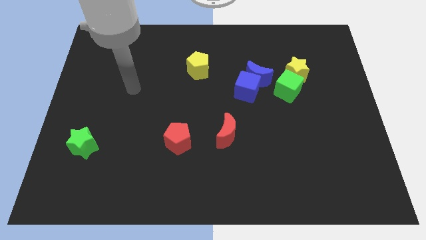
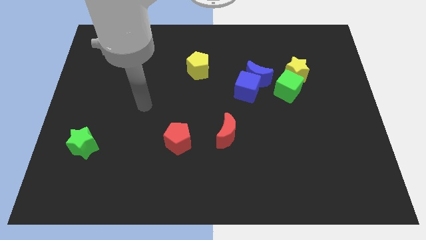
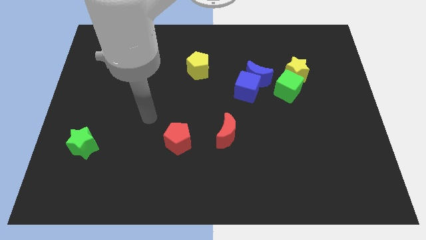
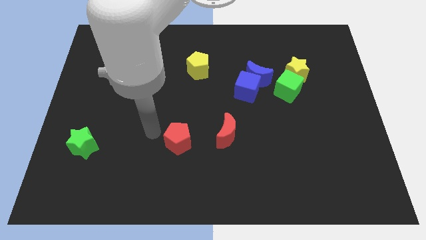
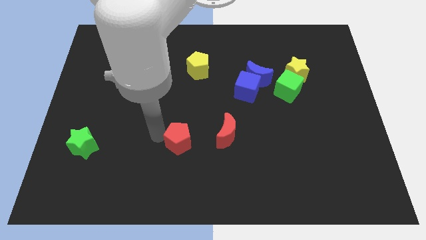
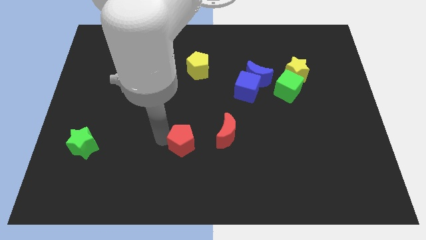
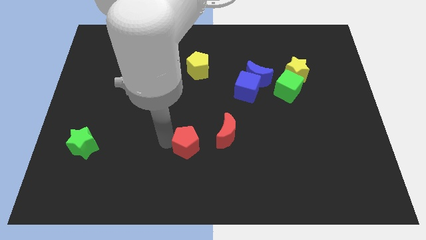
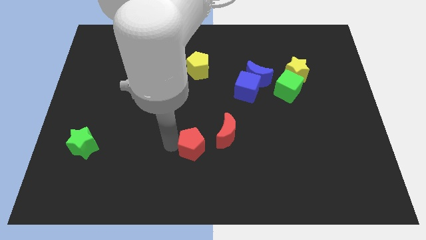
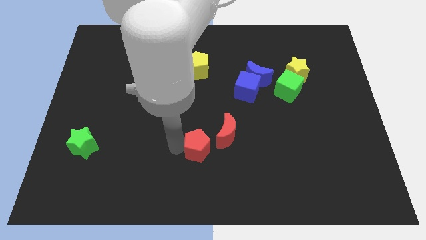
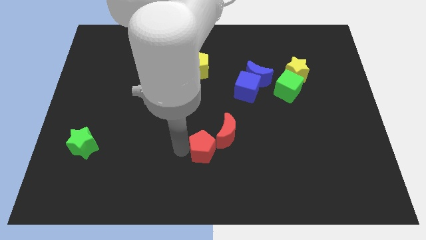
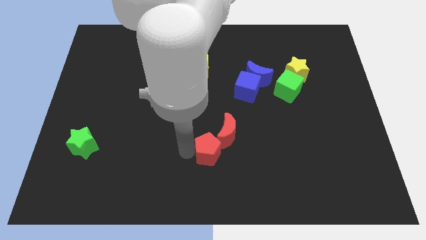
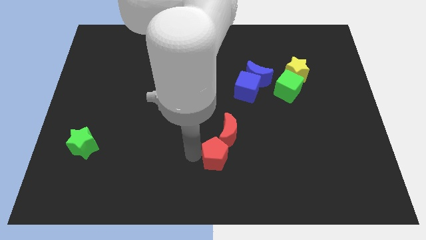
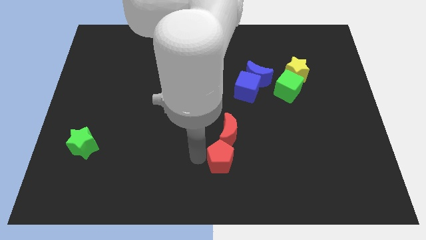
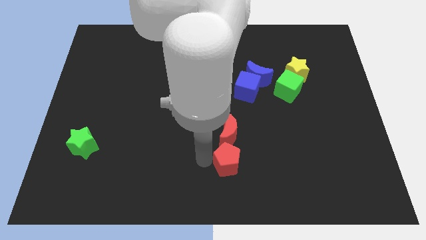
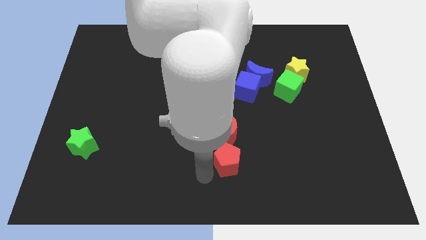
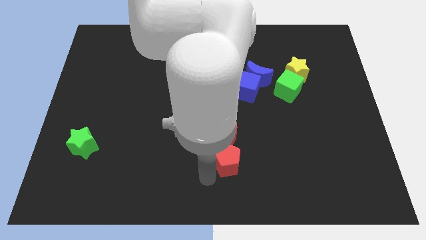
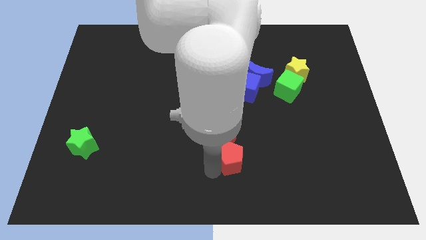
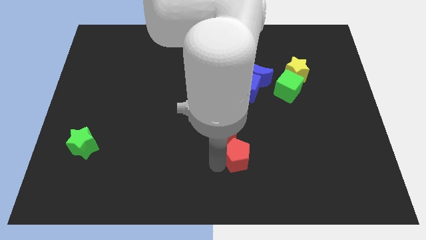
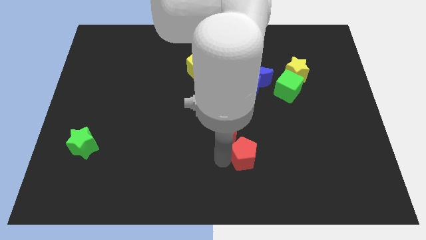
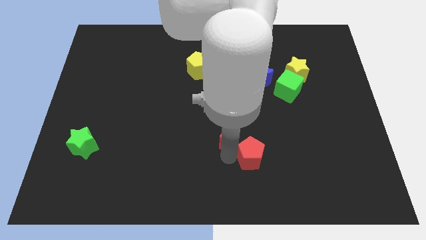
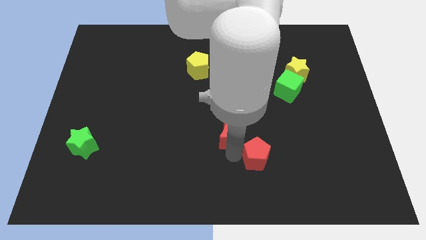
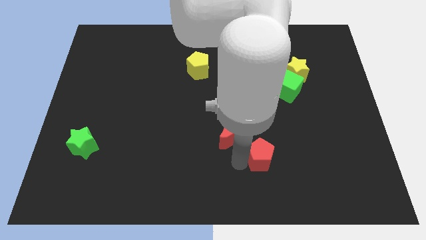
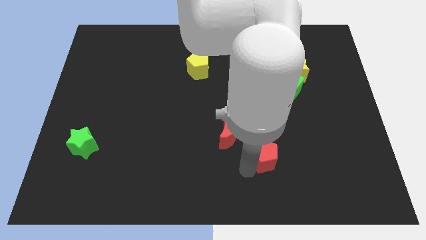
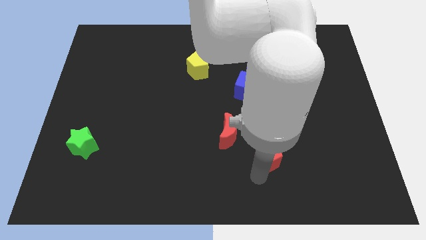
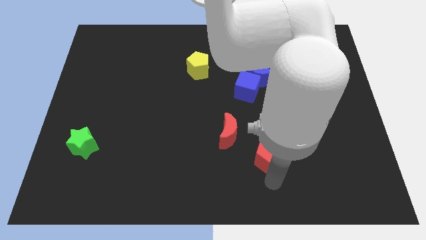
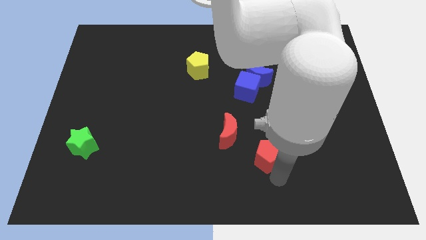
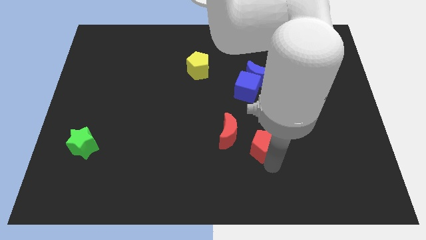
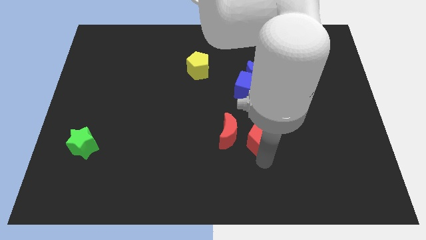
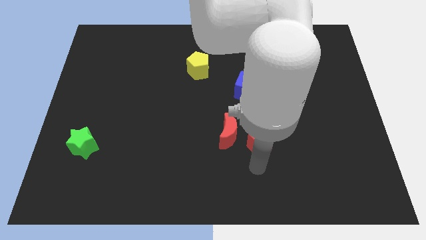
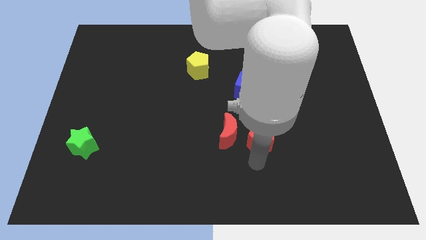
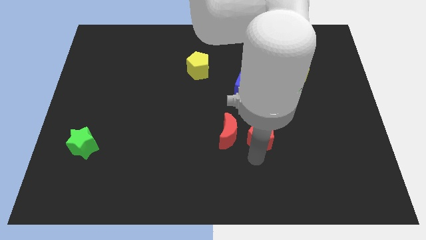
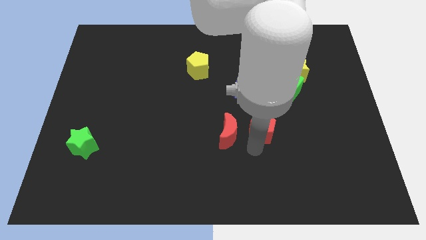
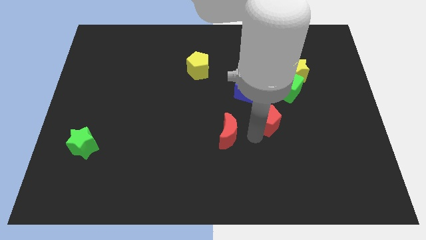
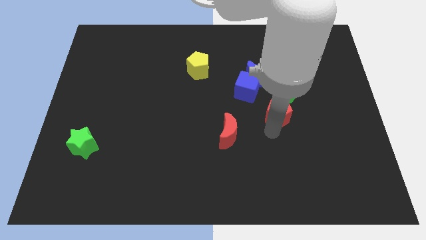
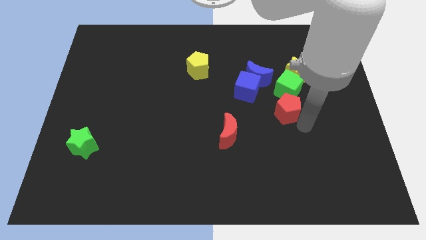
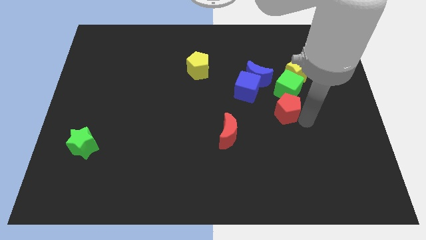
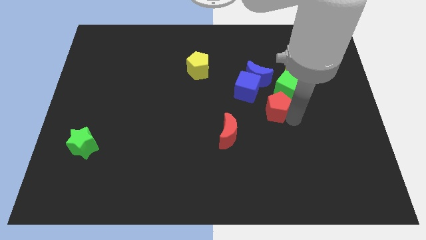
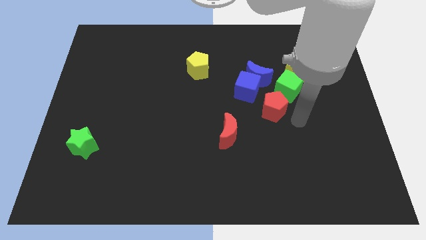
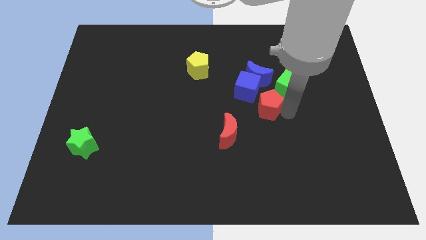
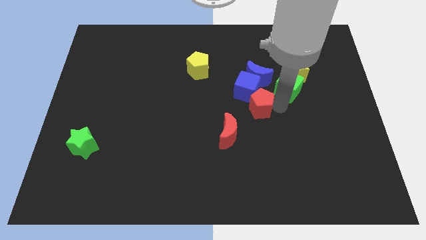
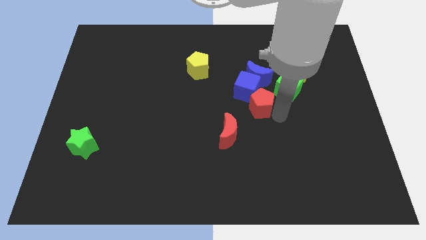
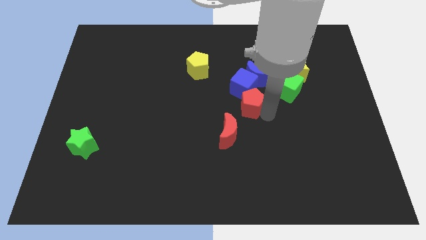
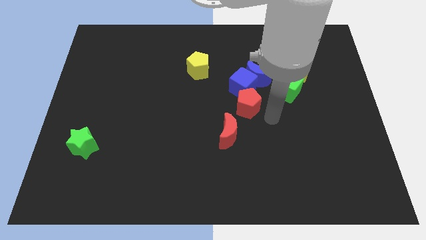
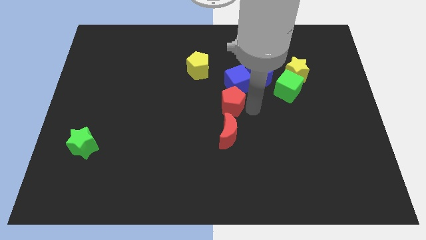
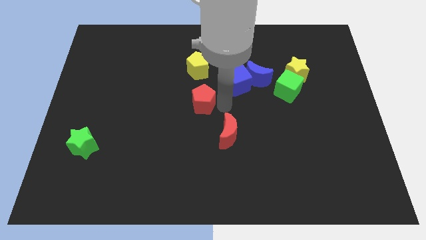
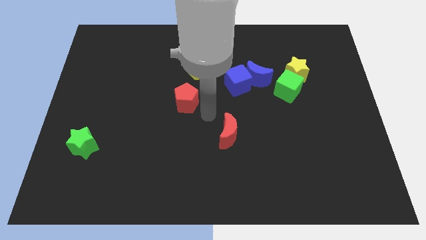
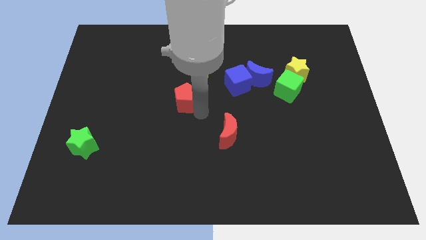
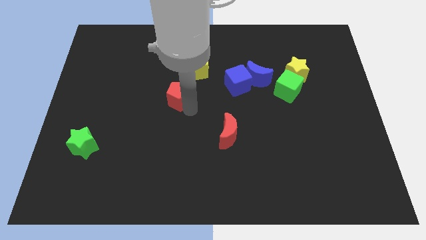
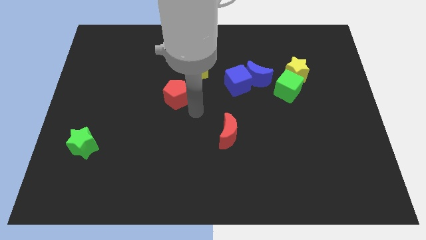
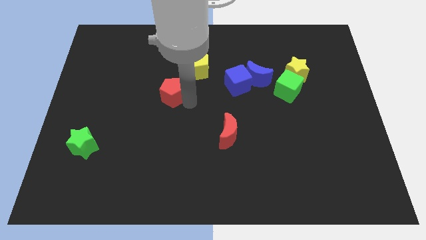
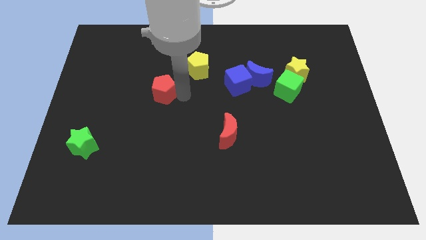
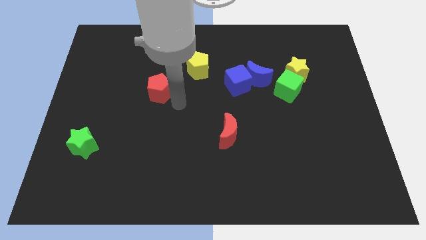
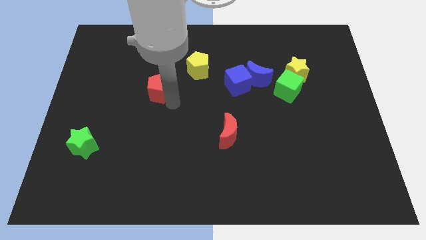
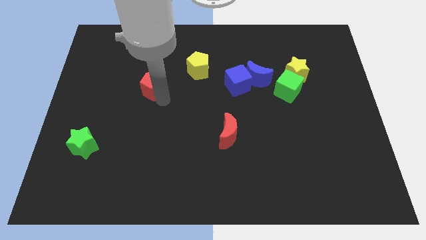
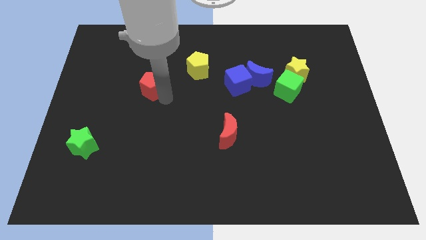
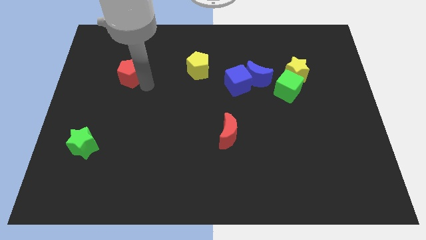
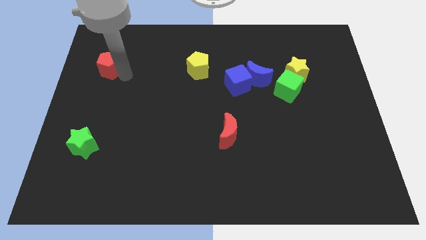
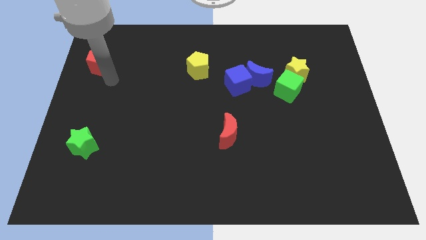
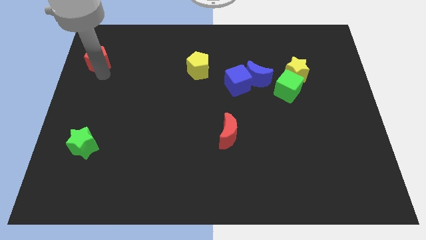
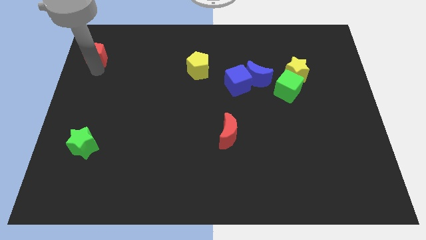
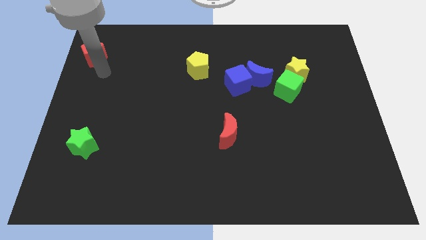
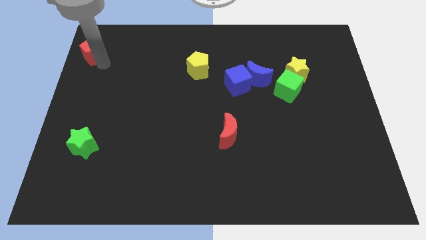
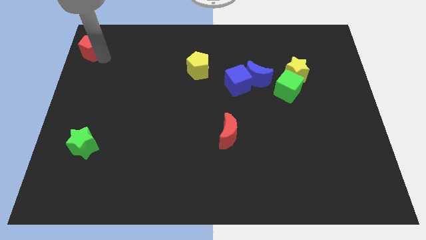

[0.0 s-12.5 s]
push the red pentagon to the top left
